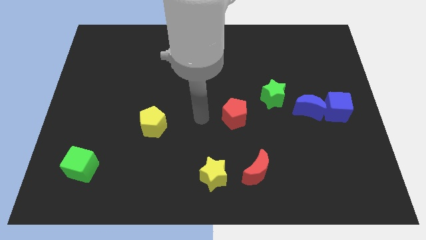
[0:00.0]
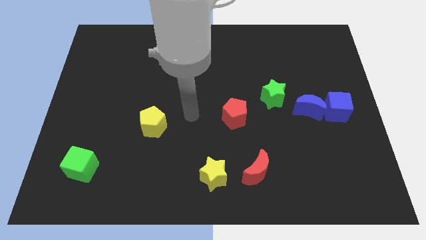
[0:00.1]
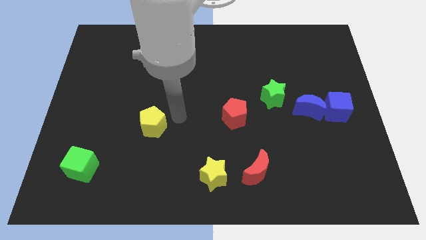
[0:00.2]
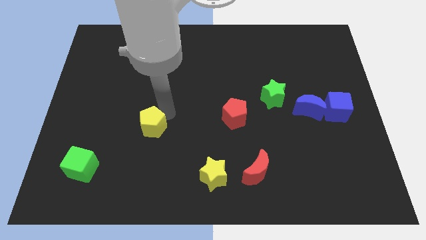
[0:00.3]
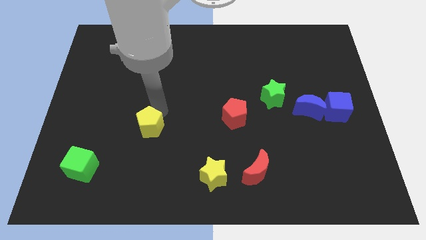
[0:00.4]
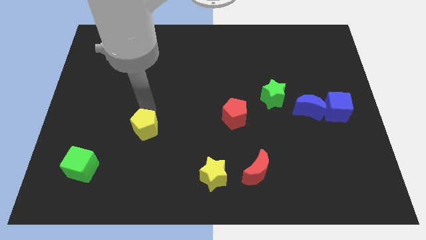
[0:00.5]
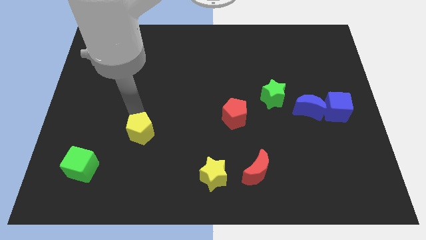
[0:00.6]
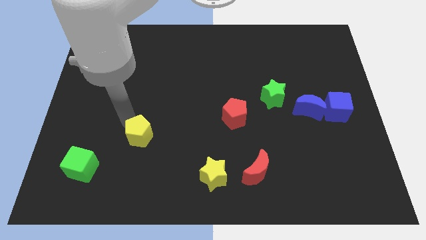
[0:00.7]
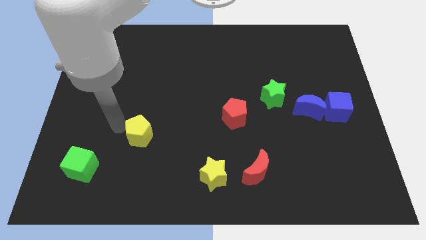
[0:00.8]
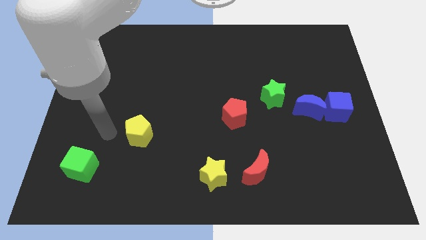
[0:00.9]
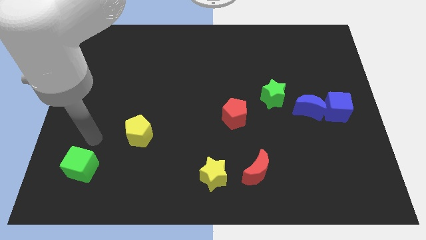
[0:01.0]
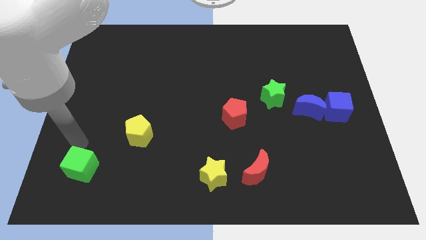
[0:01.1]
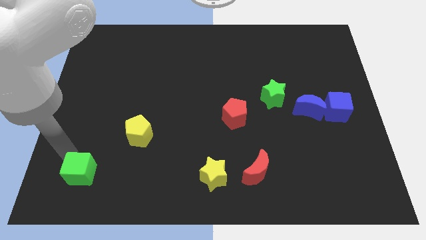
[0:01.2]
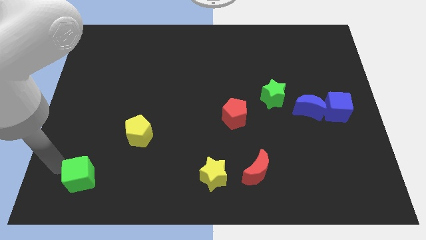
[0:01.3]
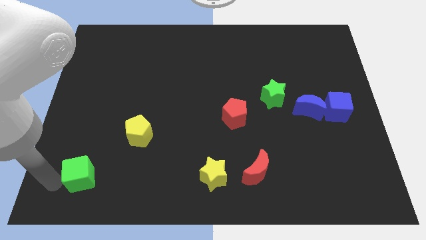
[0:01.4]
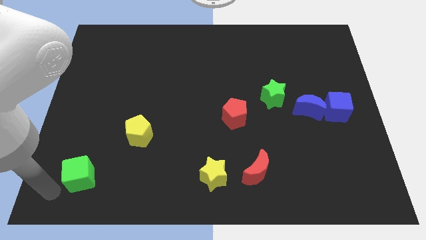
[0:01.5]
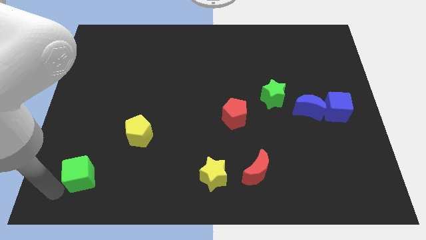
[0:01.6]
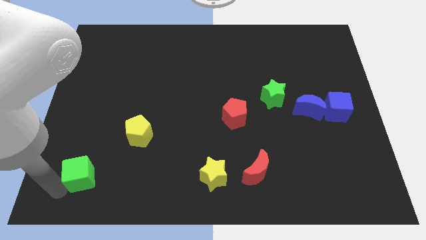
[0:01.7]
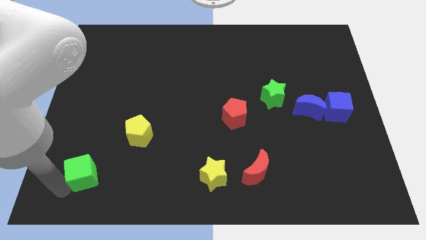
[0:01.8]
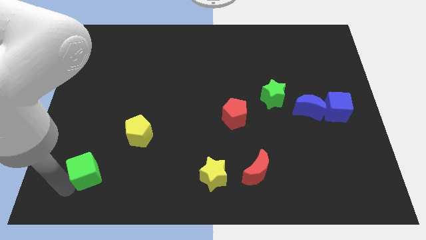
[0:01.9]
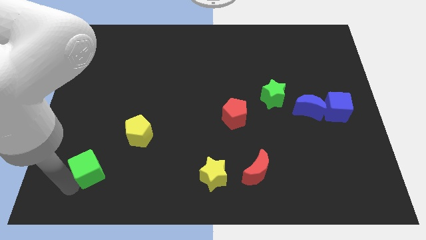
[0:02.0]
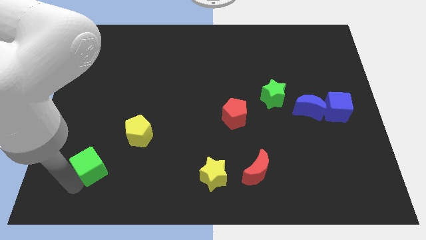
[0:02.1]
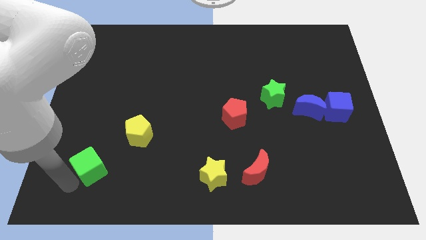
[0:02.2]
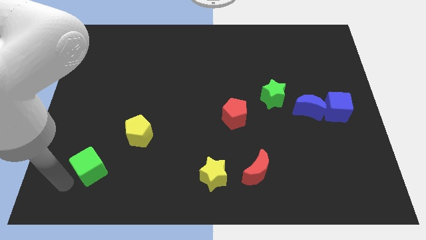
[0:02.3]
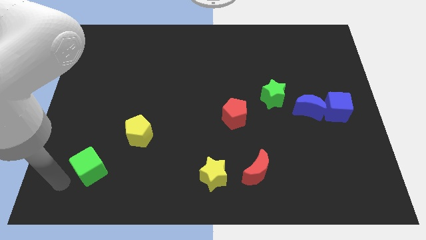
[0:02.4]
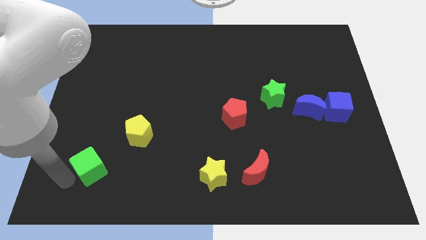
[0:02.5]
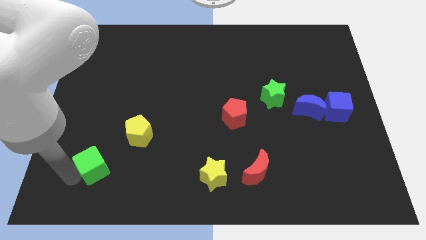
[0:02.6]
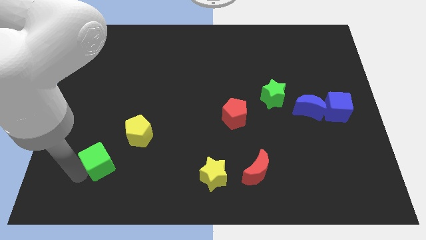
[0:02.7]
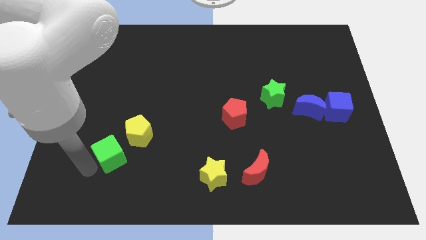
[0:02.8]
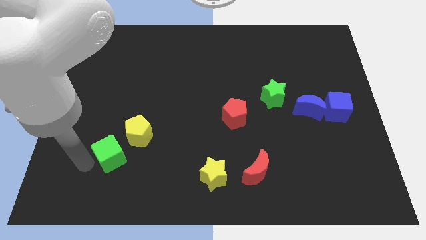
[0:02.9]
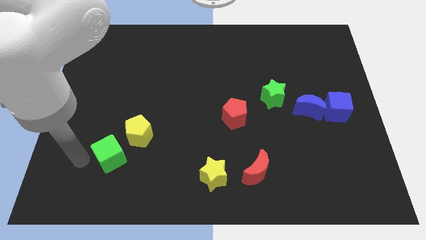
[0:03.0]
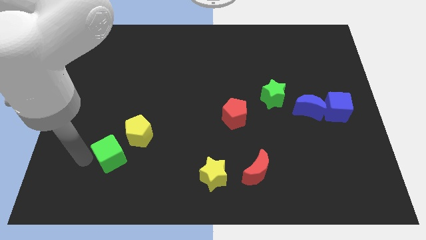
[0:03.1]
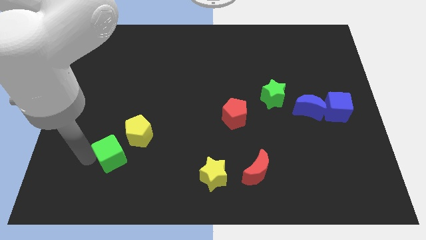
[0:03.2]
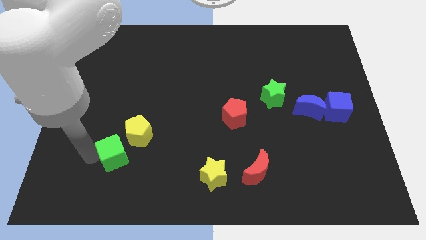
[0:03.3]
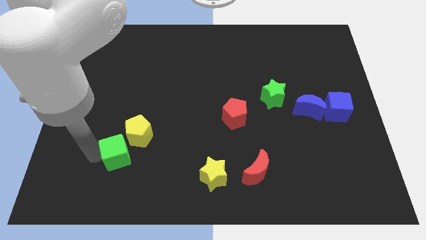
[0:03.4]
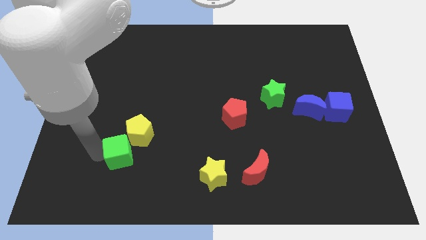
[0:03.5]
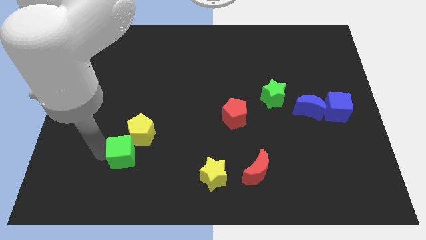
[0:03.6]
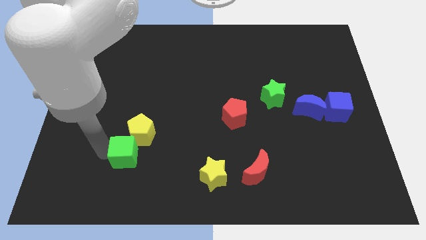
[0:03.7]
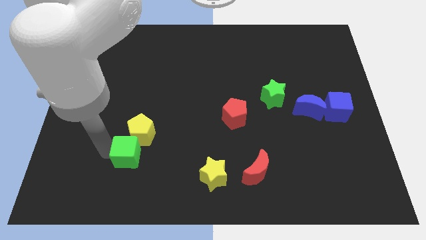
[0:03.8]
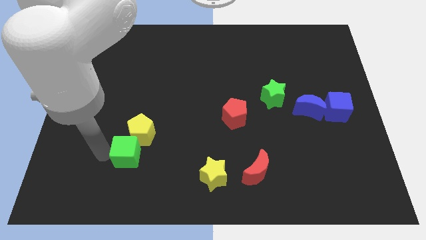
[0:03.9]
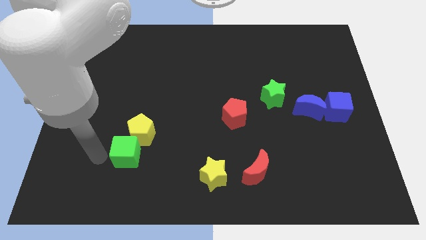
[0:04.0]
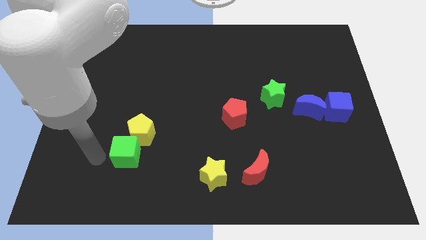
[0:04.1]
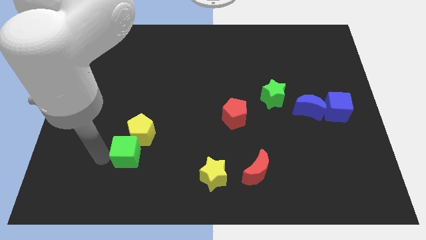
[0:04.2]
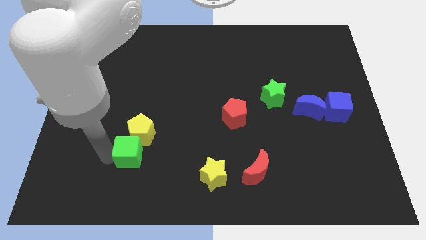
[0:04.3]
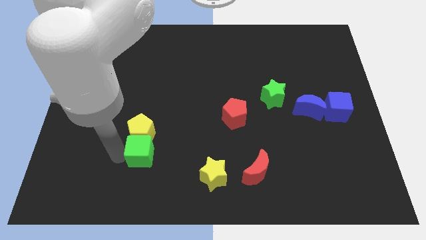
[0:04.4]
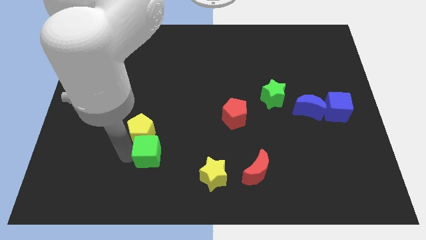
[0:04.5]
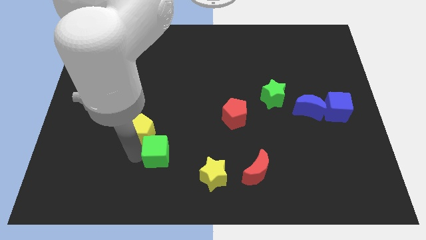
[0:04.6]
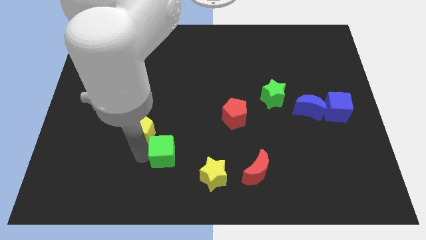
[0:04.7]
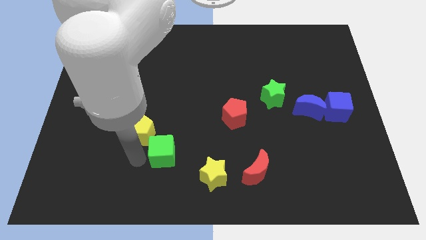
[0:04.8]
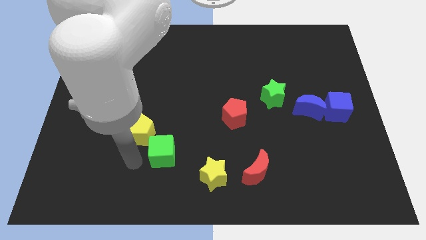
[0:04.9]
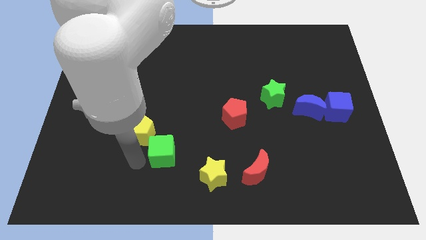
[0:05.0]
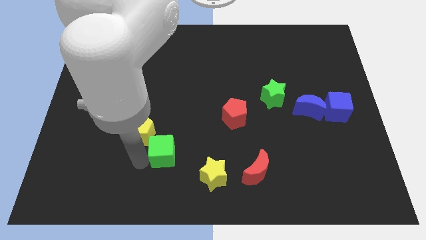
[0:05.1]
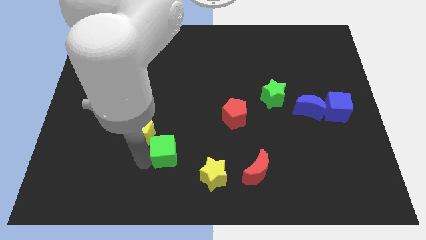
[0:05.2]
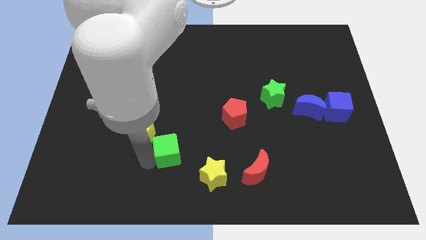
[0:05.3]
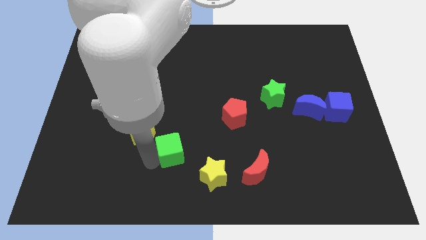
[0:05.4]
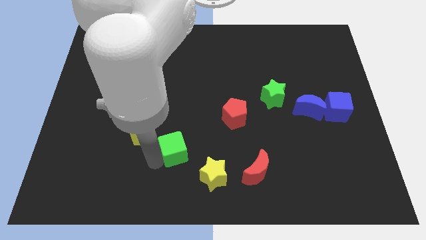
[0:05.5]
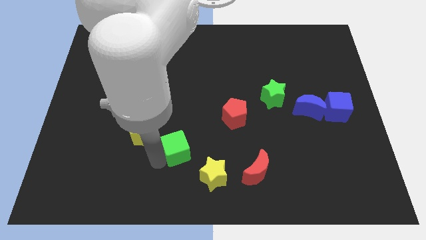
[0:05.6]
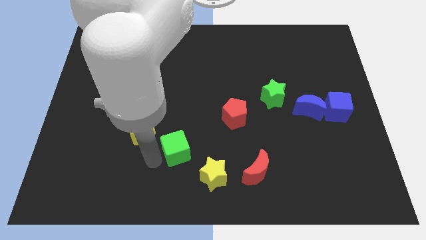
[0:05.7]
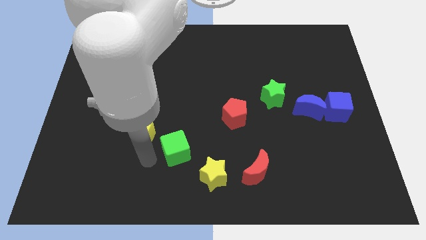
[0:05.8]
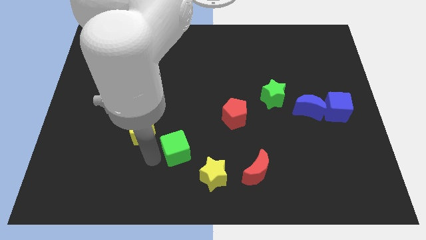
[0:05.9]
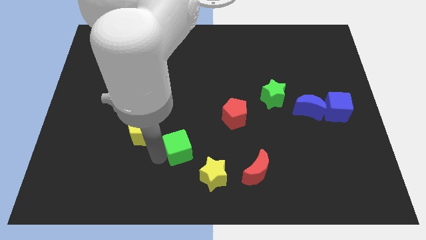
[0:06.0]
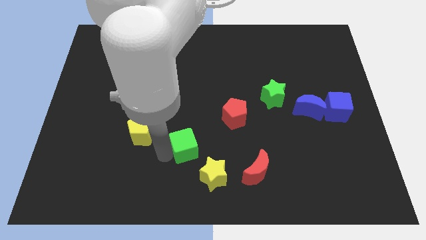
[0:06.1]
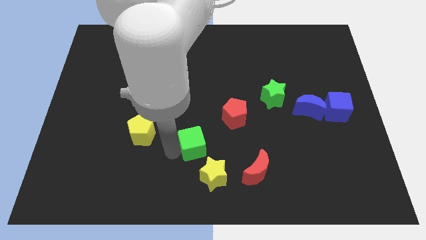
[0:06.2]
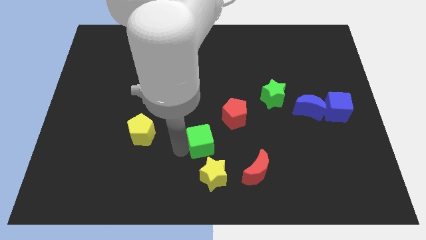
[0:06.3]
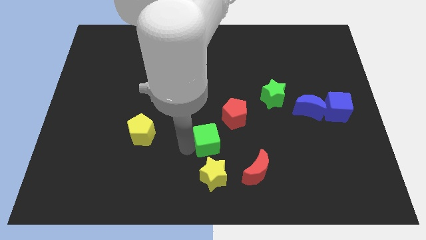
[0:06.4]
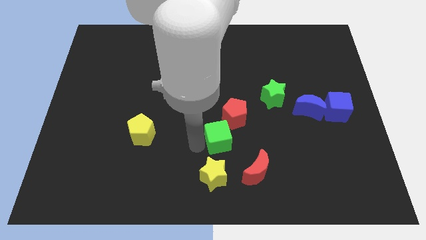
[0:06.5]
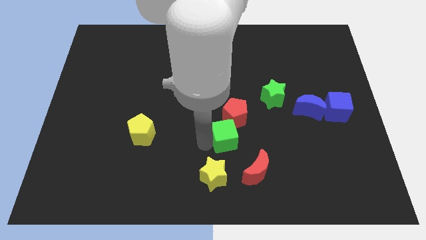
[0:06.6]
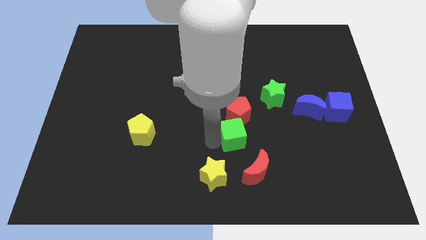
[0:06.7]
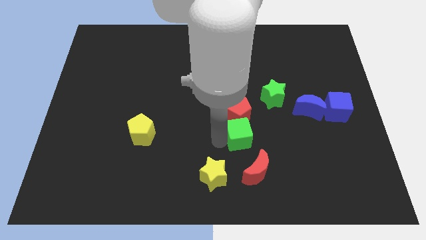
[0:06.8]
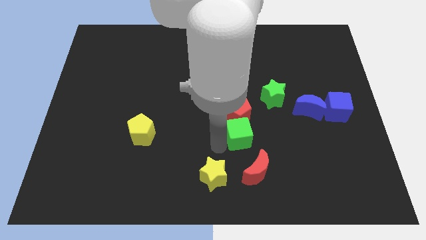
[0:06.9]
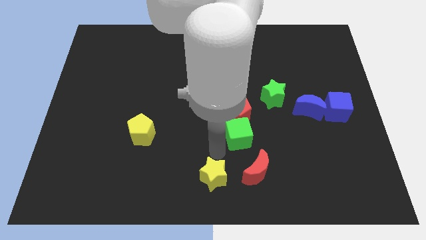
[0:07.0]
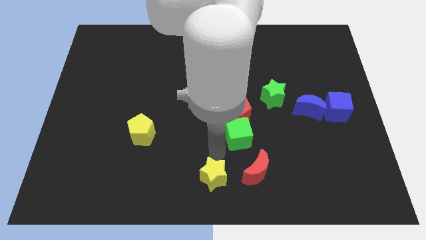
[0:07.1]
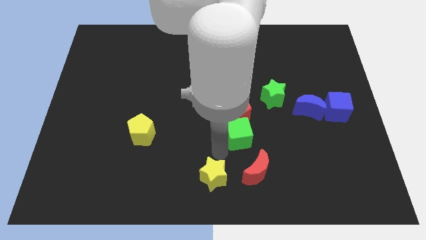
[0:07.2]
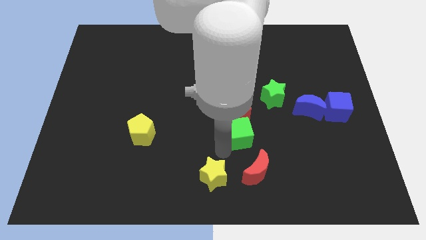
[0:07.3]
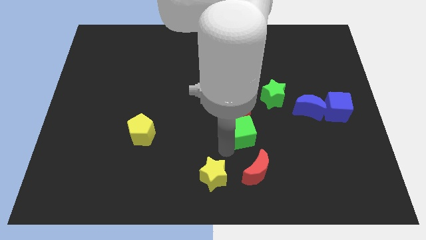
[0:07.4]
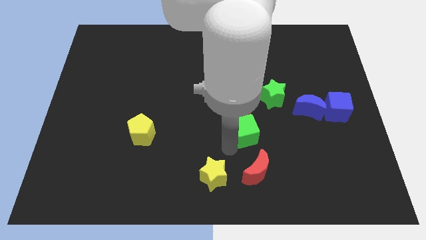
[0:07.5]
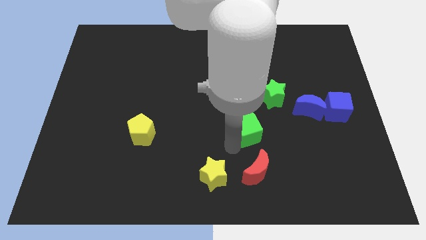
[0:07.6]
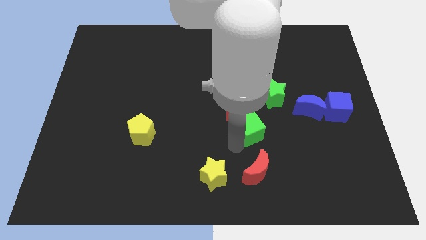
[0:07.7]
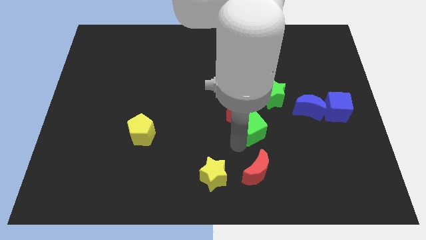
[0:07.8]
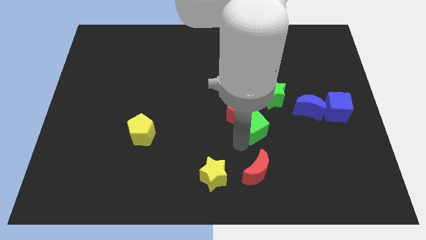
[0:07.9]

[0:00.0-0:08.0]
move the green cube right of the red pentagon
